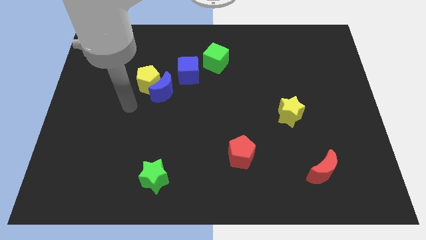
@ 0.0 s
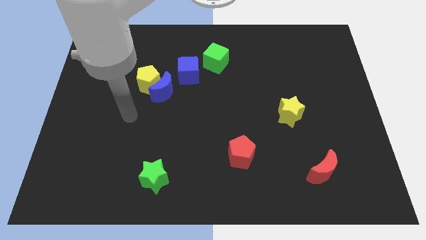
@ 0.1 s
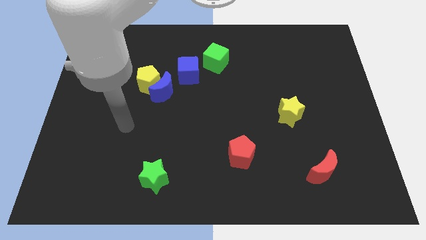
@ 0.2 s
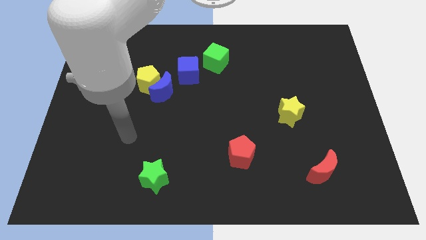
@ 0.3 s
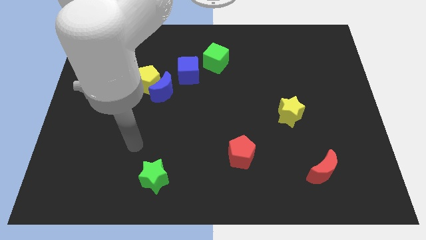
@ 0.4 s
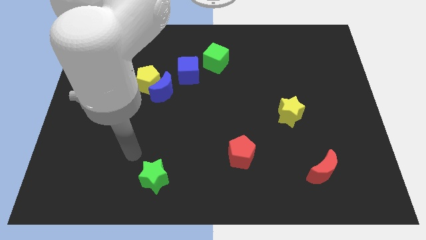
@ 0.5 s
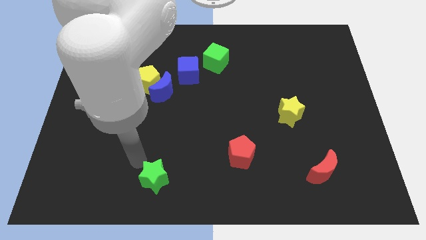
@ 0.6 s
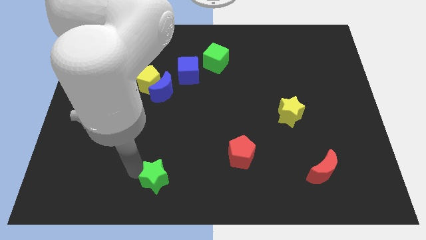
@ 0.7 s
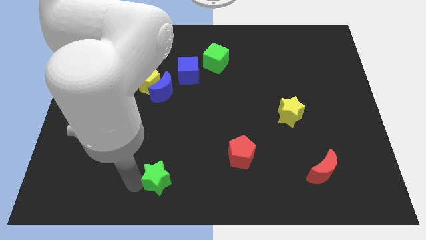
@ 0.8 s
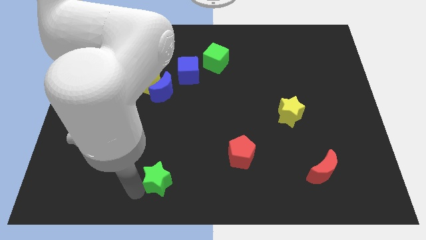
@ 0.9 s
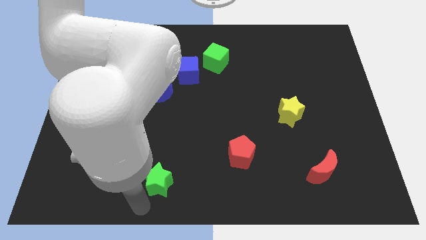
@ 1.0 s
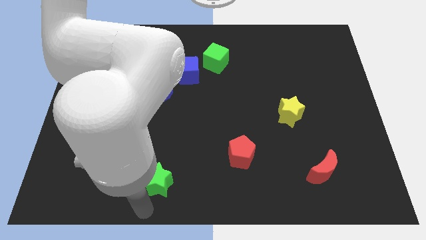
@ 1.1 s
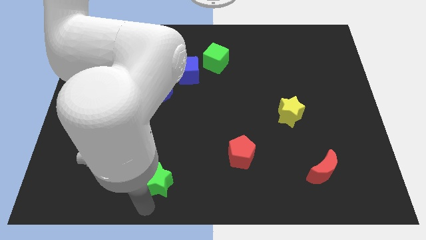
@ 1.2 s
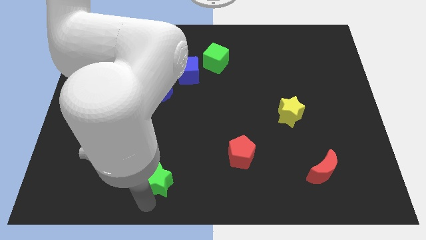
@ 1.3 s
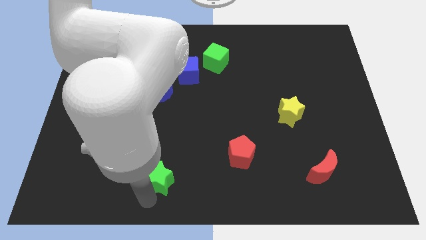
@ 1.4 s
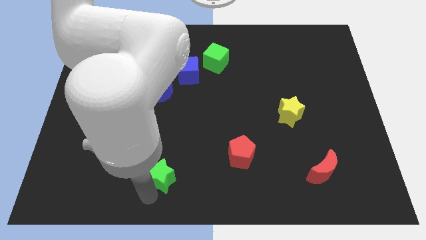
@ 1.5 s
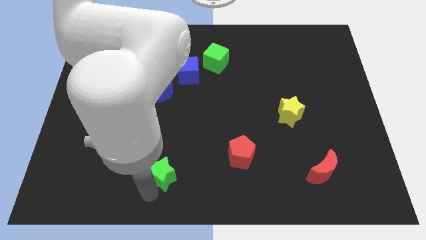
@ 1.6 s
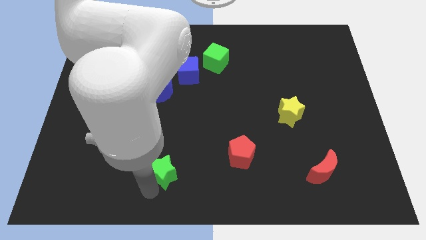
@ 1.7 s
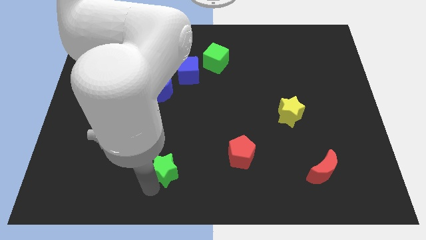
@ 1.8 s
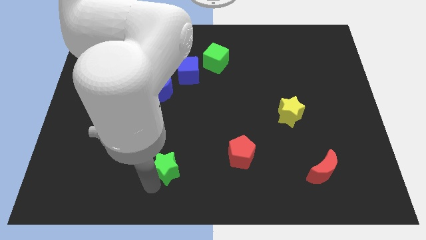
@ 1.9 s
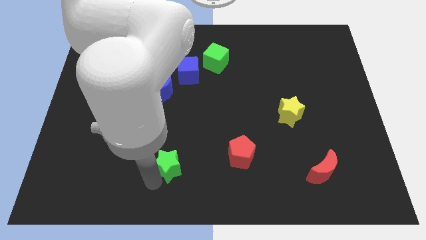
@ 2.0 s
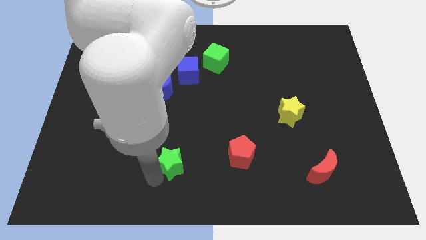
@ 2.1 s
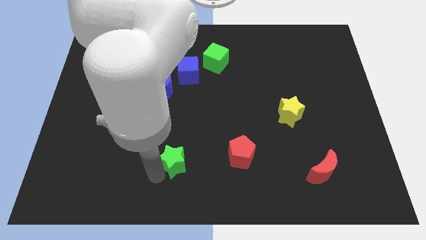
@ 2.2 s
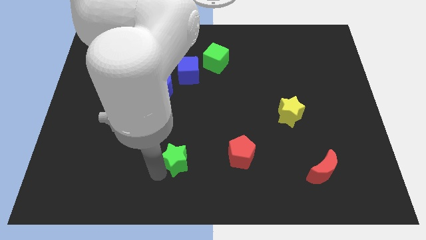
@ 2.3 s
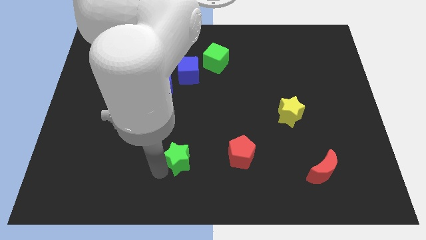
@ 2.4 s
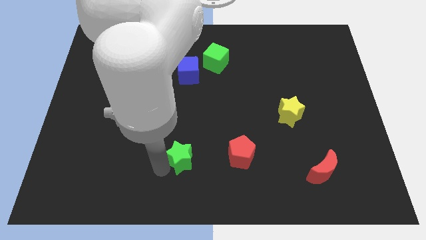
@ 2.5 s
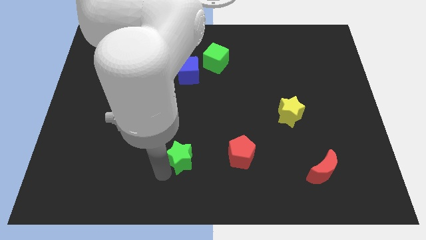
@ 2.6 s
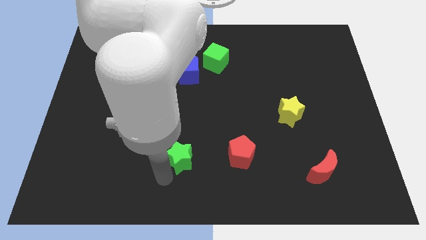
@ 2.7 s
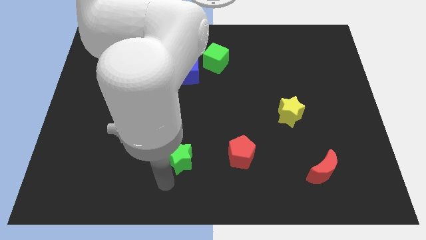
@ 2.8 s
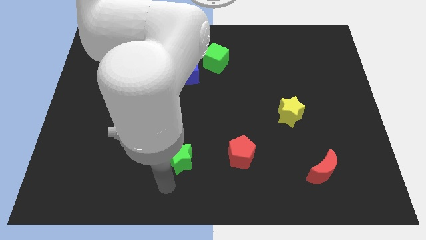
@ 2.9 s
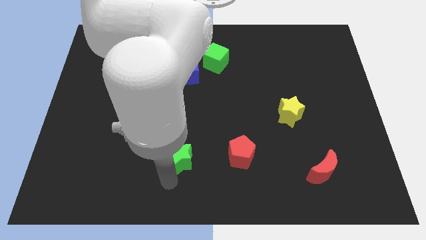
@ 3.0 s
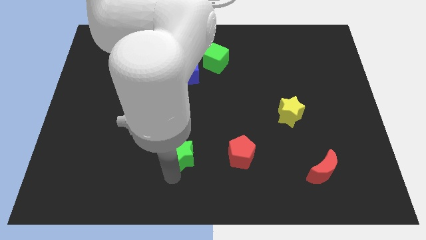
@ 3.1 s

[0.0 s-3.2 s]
push the green star upwards and to the right diagonally a bit

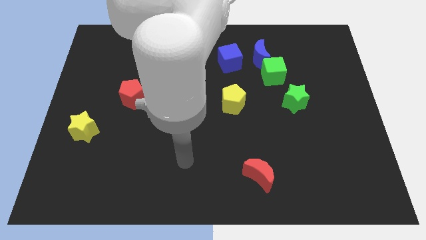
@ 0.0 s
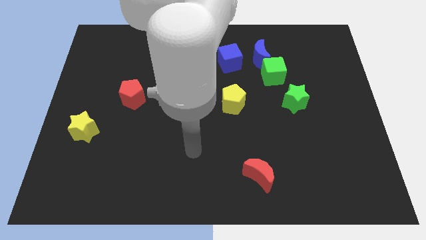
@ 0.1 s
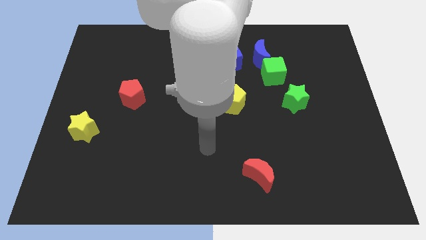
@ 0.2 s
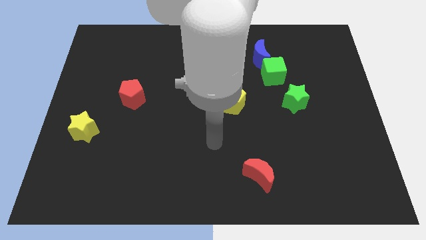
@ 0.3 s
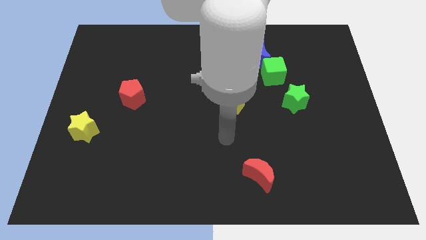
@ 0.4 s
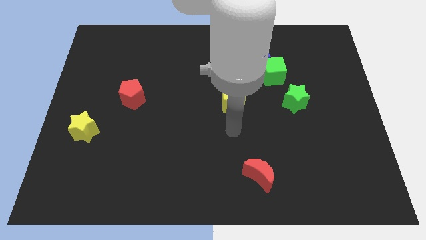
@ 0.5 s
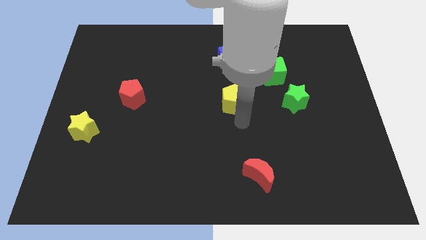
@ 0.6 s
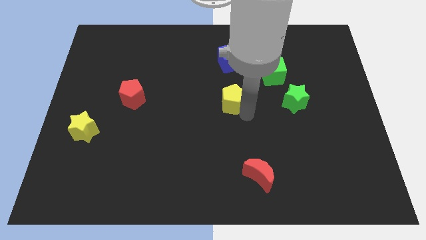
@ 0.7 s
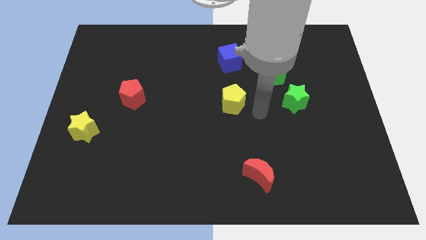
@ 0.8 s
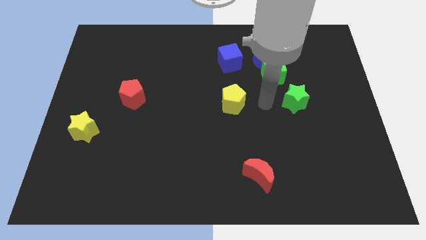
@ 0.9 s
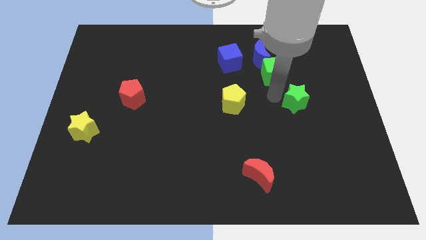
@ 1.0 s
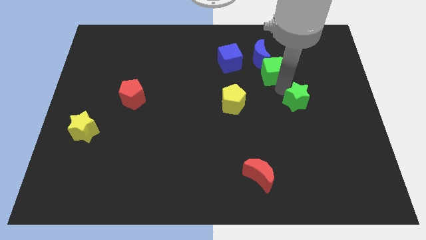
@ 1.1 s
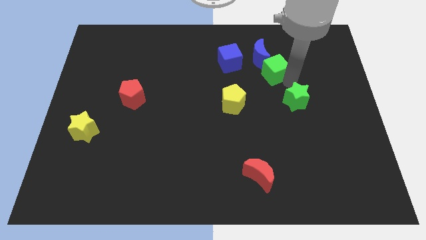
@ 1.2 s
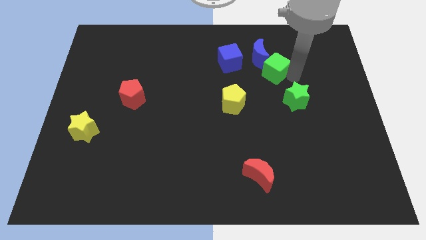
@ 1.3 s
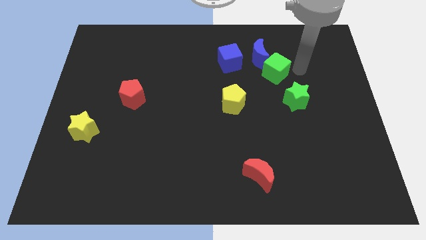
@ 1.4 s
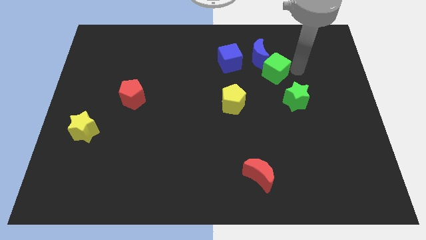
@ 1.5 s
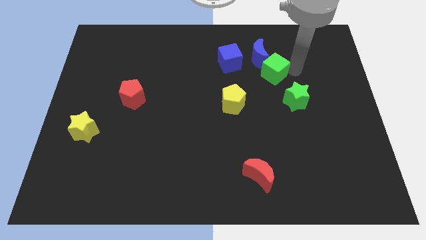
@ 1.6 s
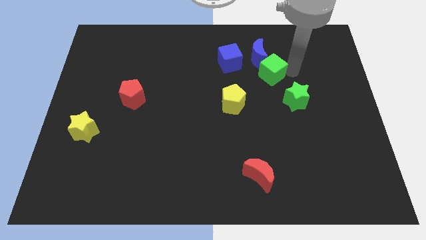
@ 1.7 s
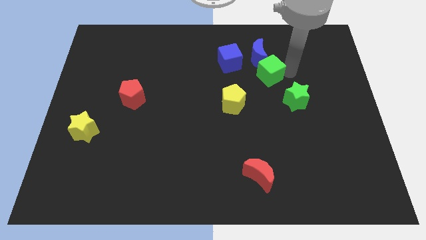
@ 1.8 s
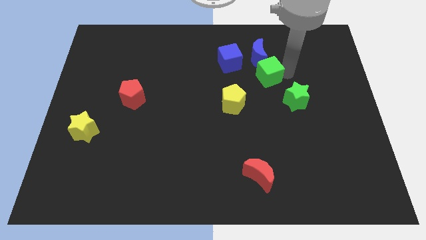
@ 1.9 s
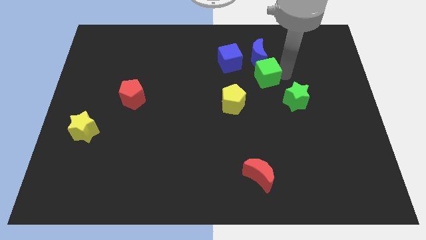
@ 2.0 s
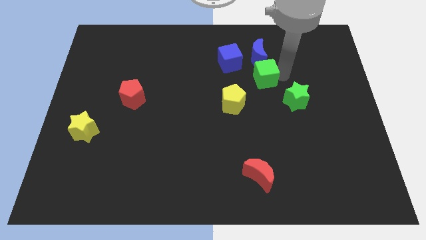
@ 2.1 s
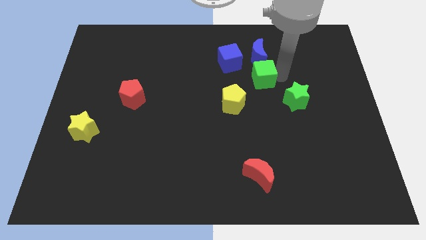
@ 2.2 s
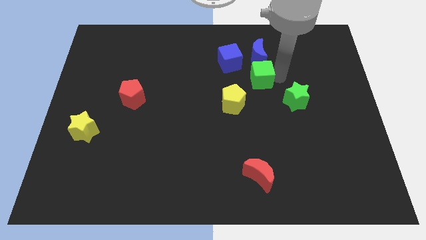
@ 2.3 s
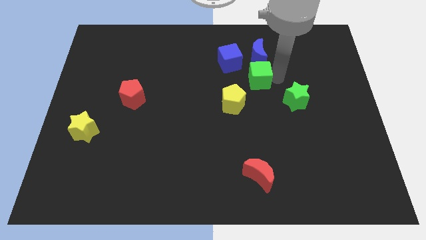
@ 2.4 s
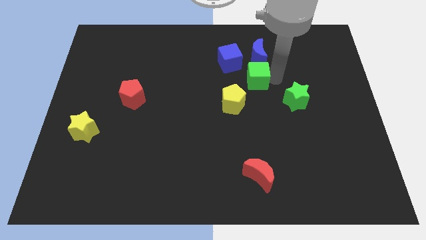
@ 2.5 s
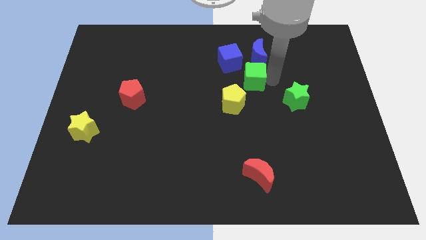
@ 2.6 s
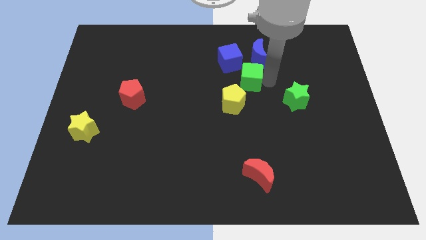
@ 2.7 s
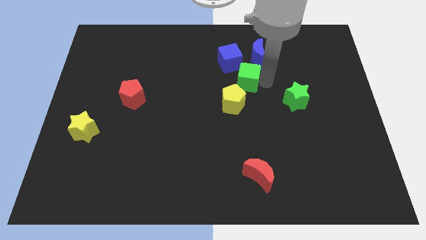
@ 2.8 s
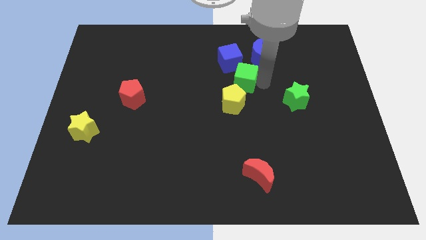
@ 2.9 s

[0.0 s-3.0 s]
move the green cube to the left a little bit

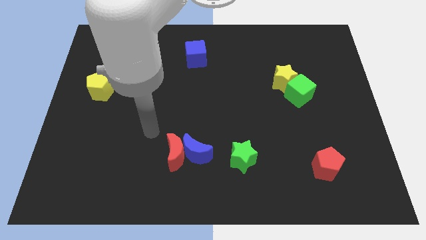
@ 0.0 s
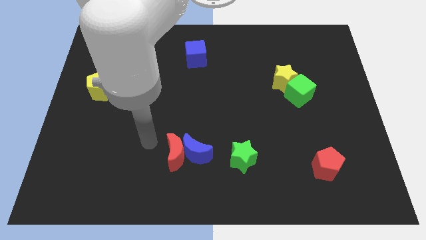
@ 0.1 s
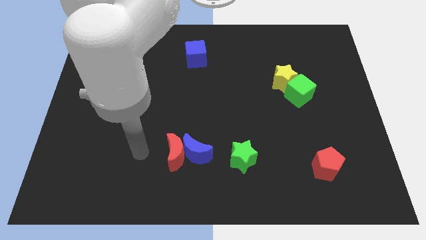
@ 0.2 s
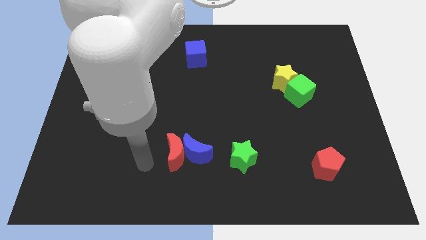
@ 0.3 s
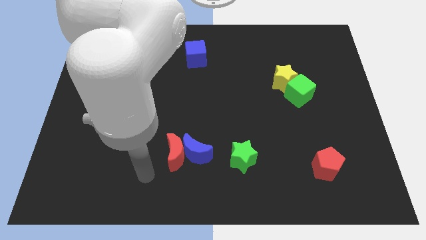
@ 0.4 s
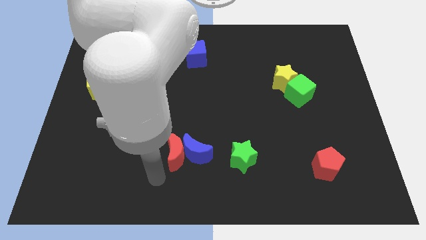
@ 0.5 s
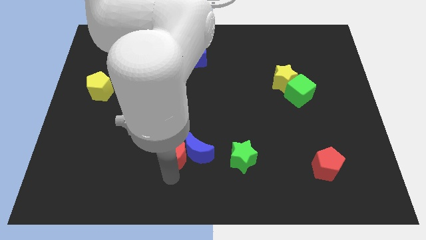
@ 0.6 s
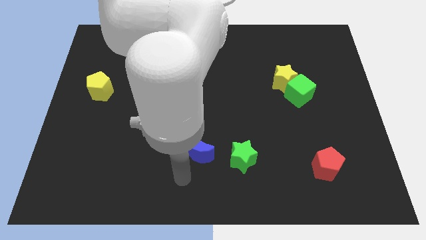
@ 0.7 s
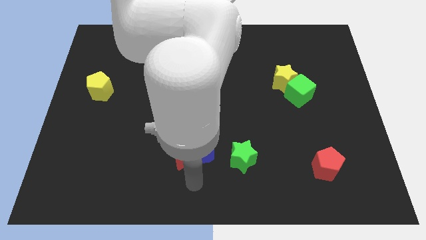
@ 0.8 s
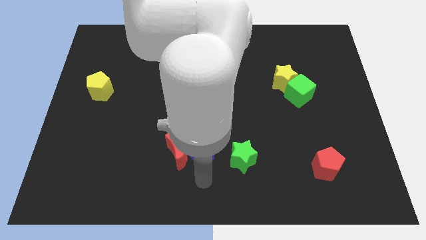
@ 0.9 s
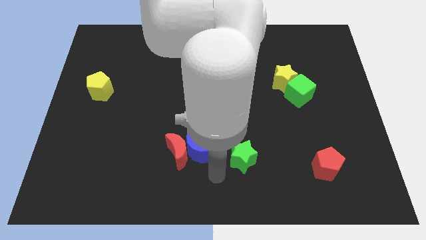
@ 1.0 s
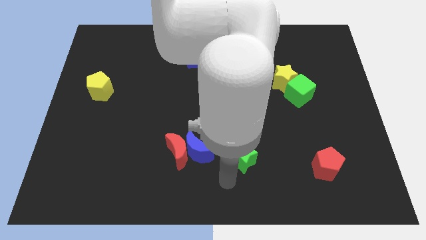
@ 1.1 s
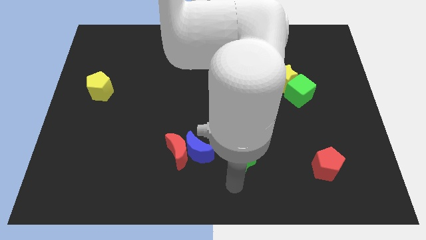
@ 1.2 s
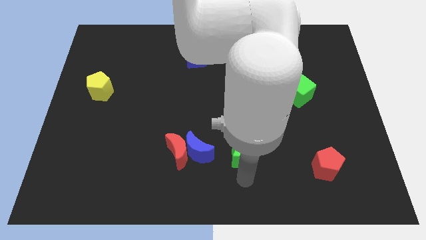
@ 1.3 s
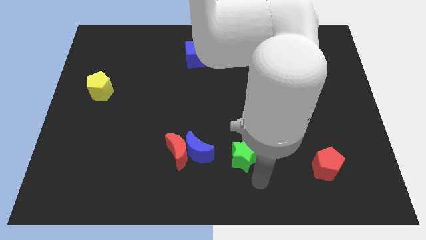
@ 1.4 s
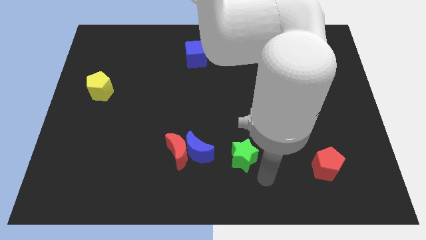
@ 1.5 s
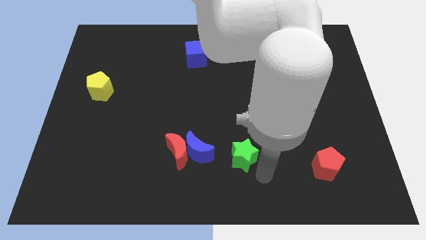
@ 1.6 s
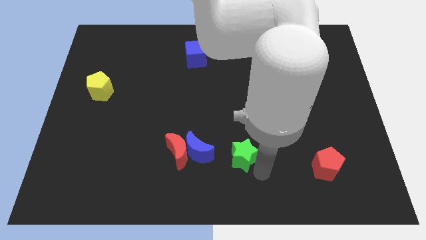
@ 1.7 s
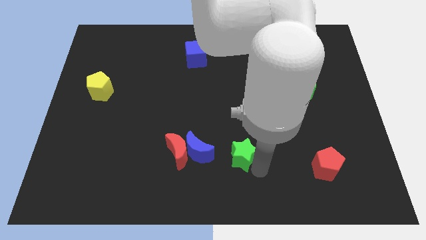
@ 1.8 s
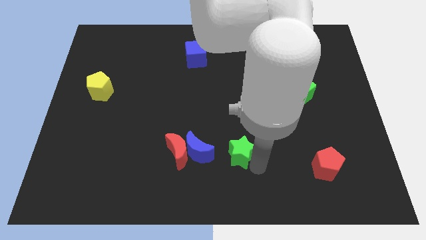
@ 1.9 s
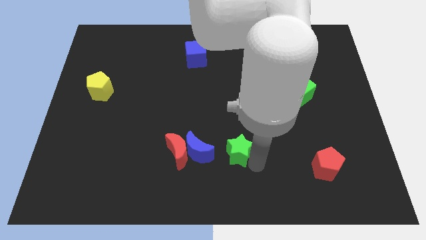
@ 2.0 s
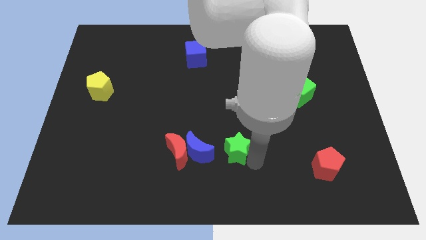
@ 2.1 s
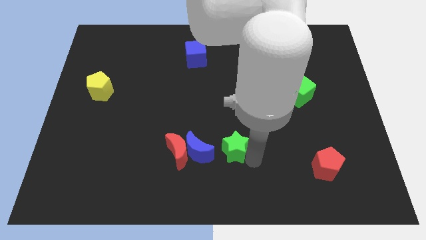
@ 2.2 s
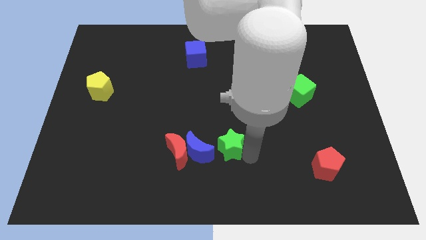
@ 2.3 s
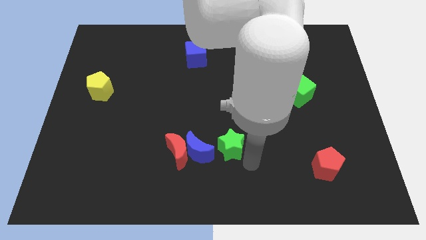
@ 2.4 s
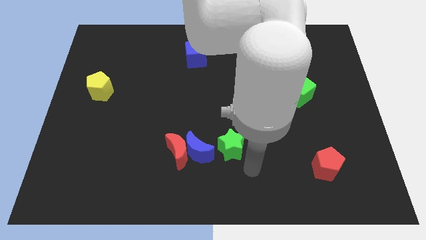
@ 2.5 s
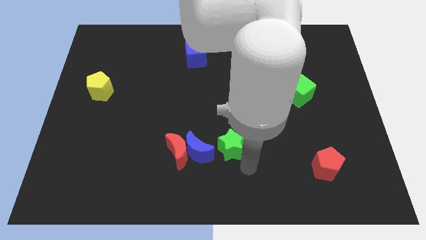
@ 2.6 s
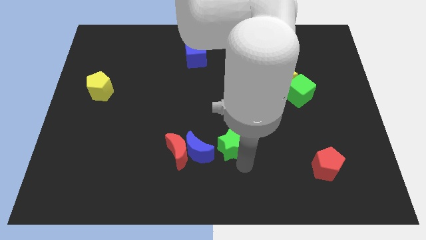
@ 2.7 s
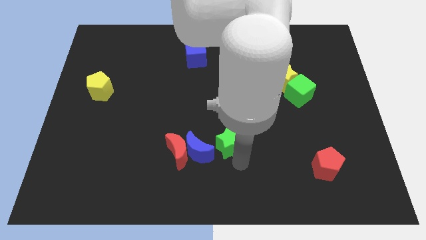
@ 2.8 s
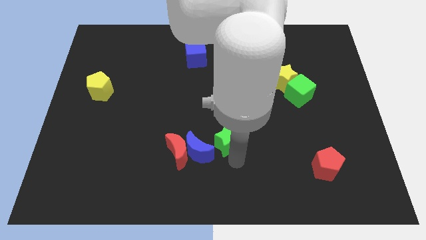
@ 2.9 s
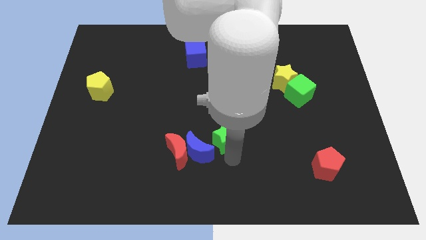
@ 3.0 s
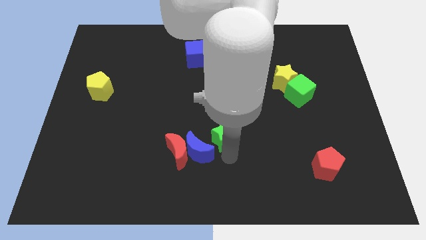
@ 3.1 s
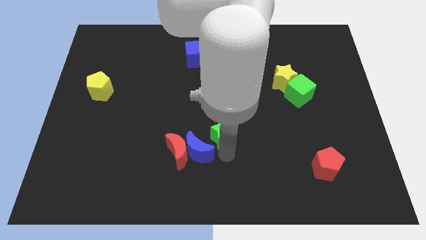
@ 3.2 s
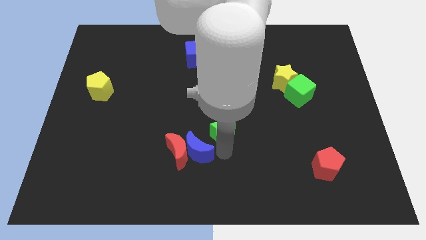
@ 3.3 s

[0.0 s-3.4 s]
slide the green star slightly up and left
